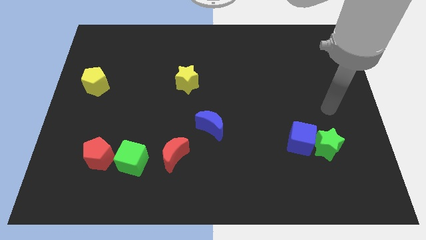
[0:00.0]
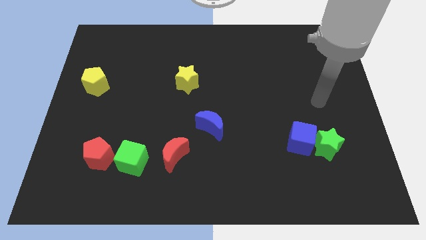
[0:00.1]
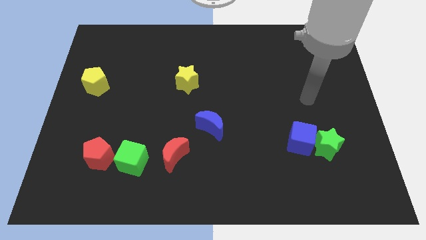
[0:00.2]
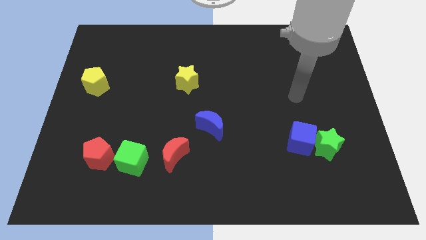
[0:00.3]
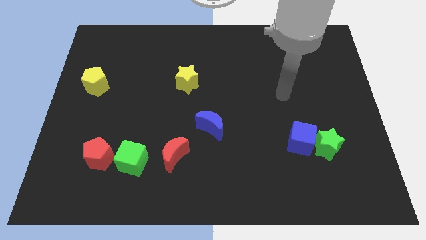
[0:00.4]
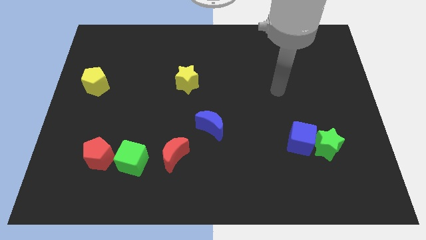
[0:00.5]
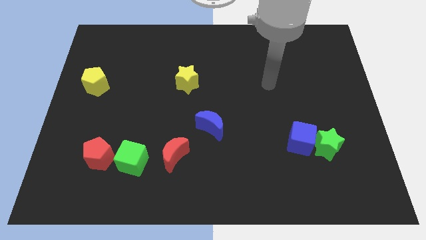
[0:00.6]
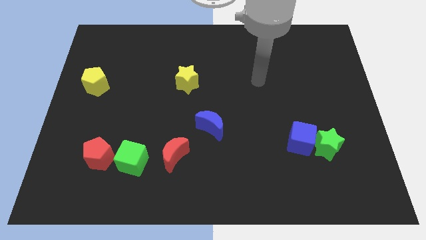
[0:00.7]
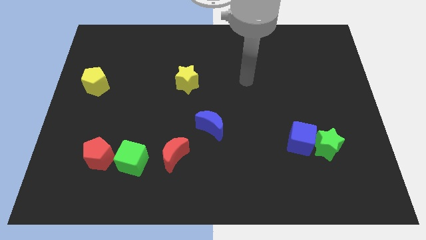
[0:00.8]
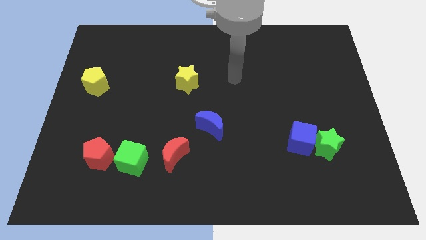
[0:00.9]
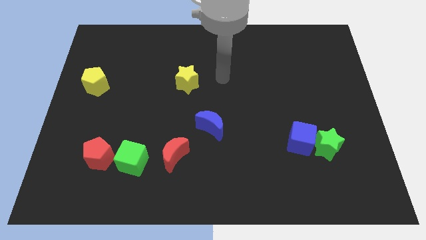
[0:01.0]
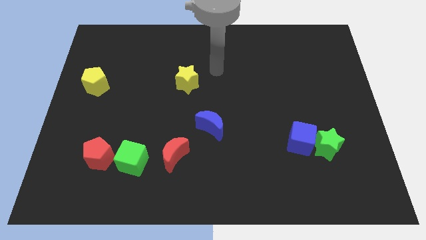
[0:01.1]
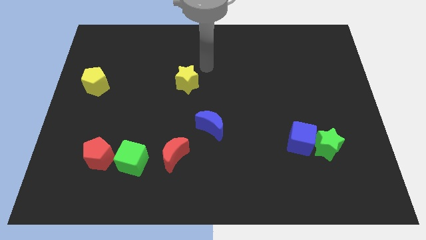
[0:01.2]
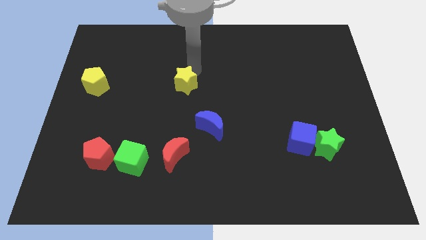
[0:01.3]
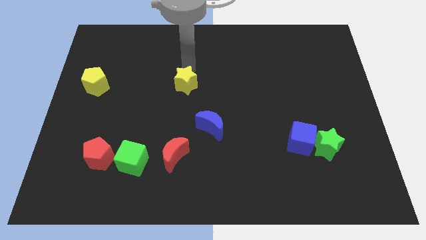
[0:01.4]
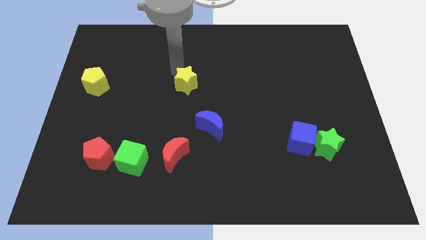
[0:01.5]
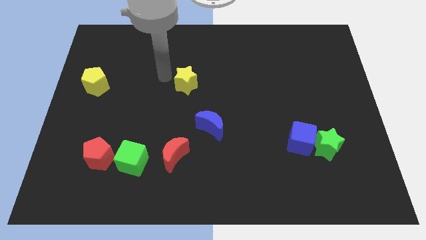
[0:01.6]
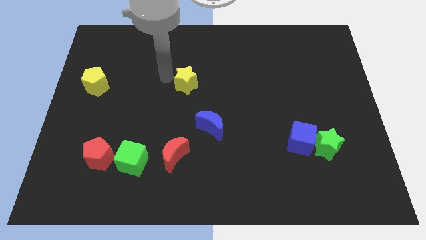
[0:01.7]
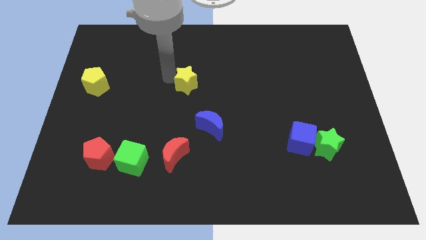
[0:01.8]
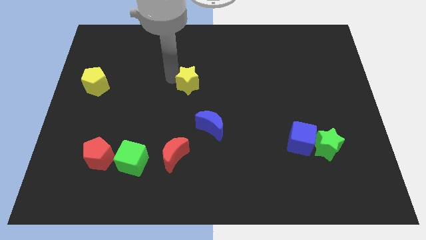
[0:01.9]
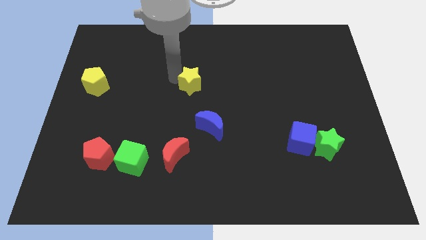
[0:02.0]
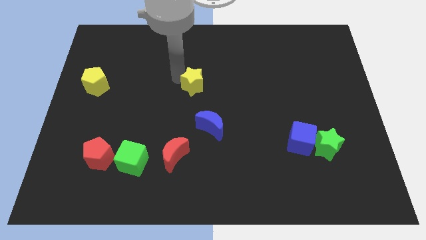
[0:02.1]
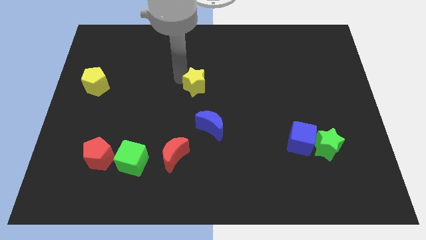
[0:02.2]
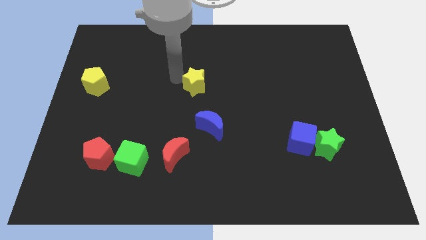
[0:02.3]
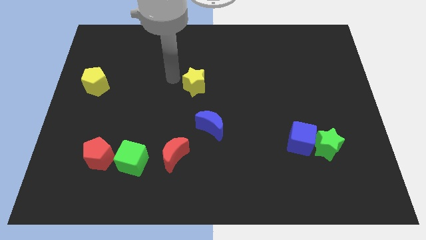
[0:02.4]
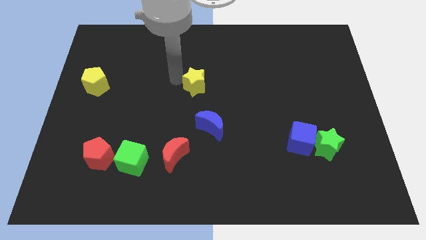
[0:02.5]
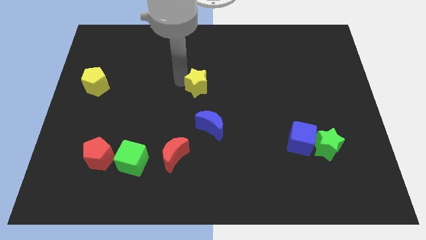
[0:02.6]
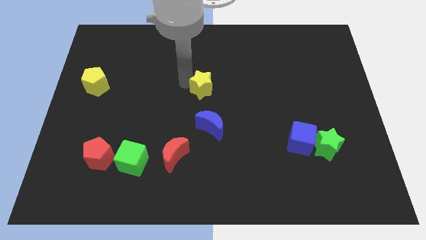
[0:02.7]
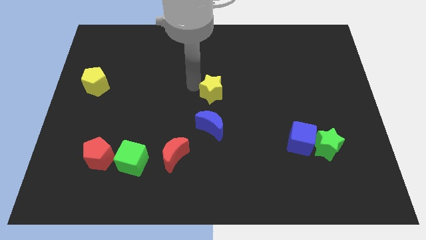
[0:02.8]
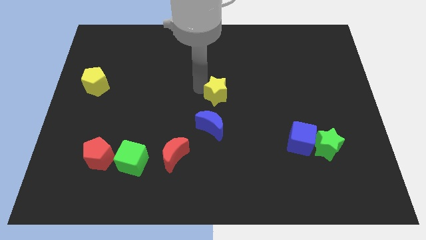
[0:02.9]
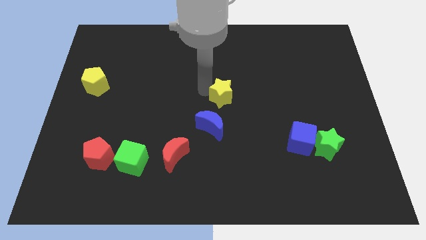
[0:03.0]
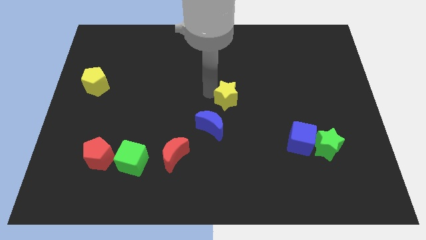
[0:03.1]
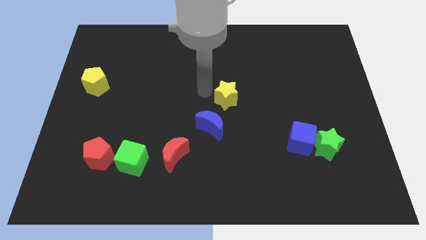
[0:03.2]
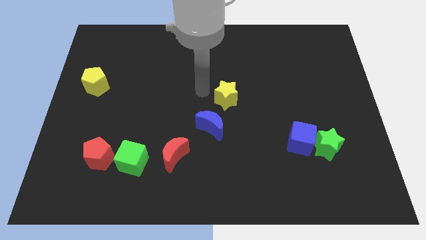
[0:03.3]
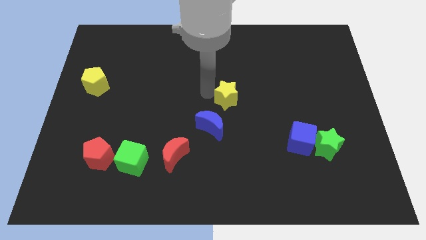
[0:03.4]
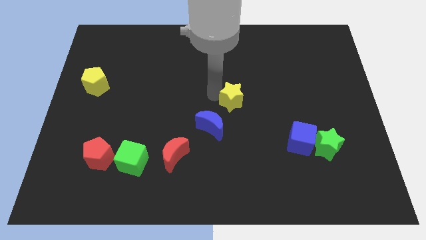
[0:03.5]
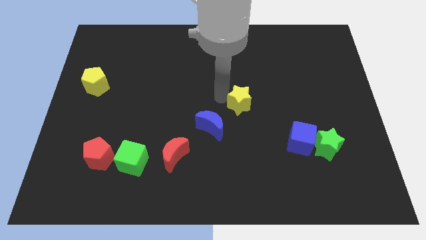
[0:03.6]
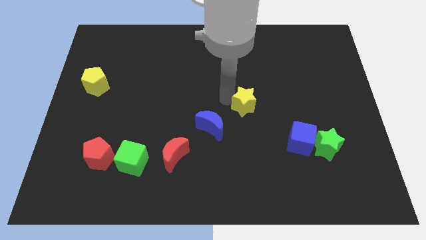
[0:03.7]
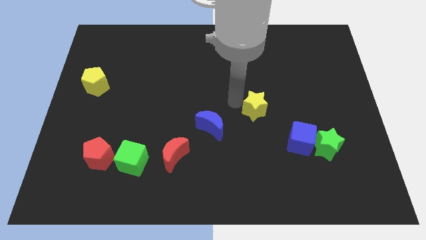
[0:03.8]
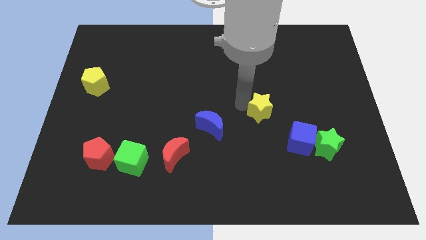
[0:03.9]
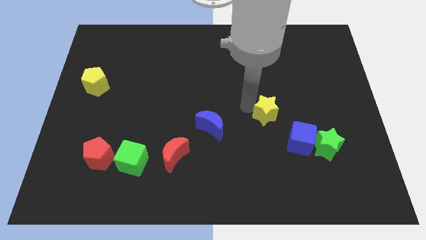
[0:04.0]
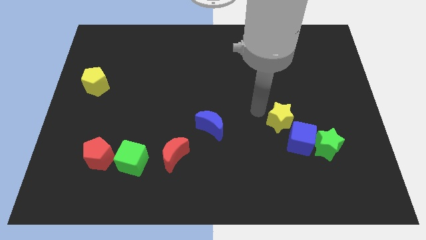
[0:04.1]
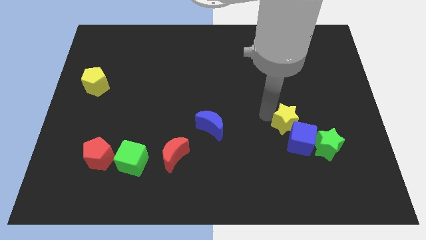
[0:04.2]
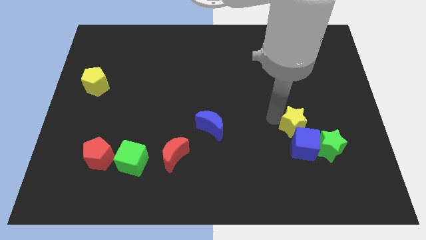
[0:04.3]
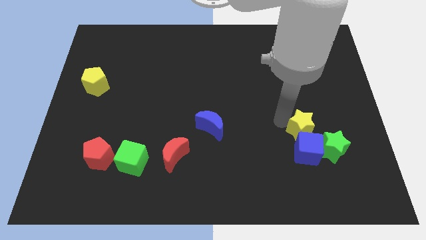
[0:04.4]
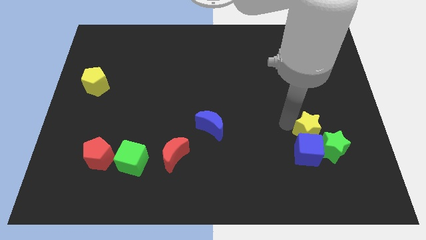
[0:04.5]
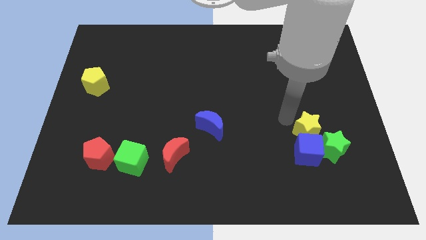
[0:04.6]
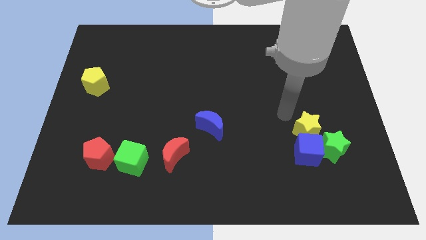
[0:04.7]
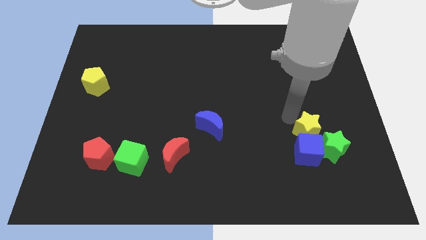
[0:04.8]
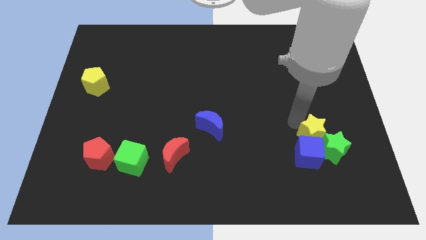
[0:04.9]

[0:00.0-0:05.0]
move the yellow star close to the green star
